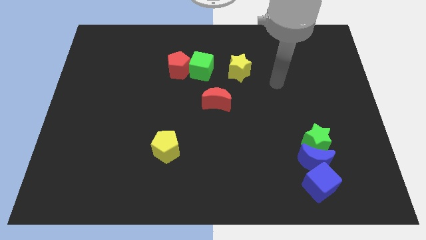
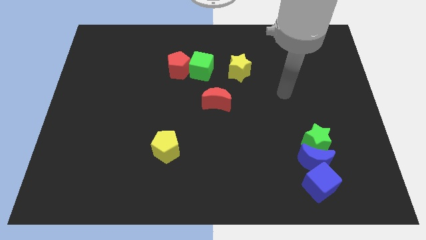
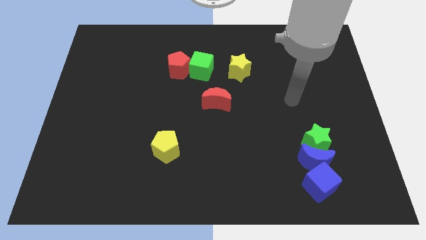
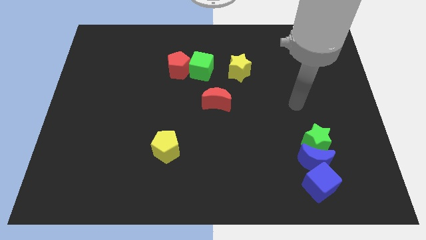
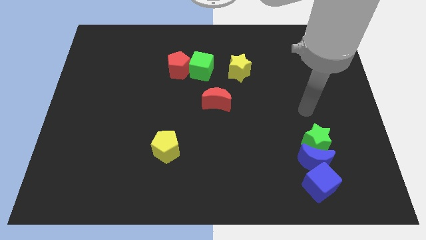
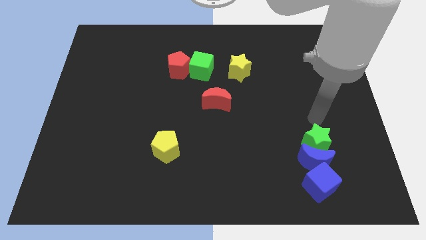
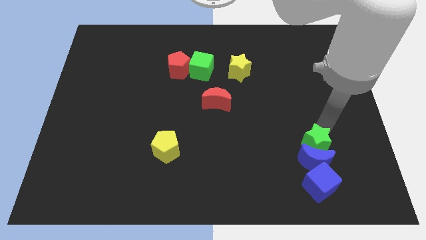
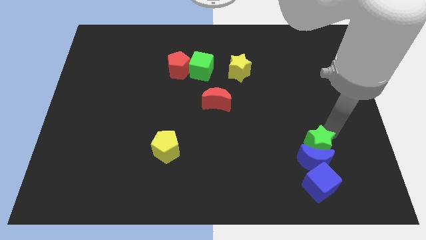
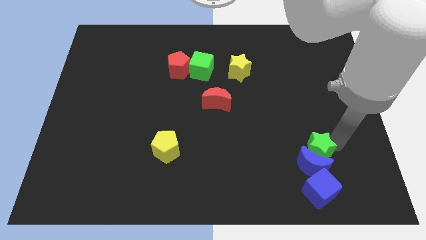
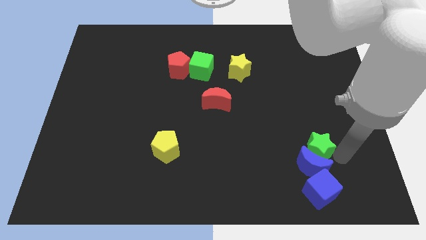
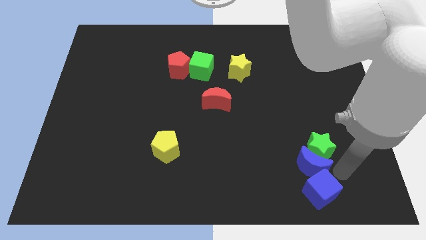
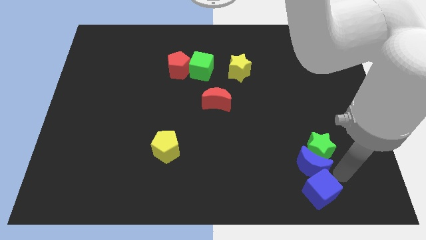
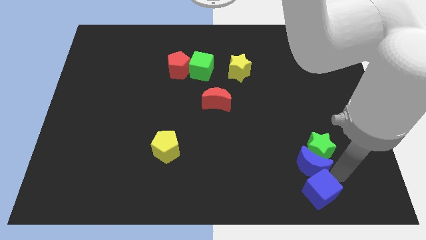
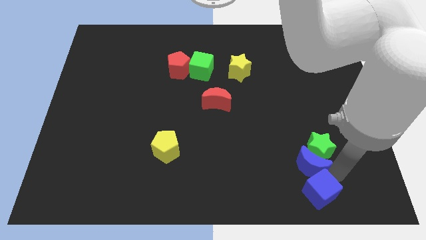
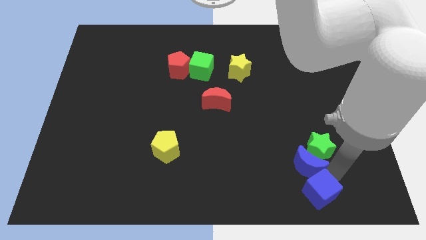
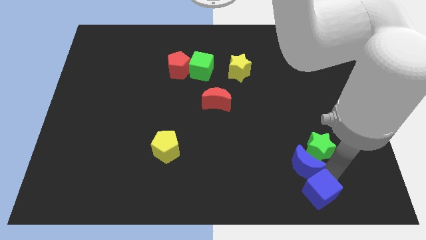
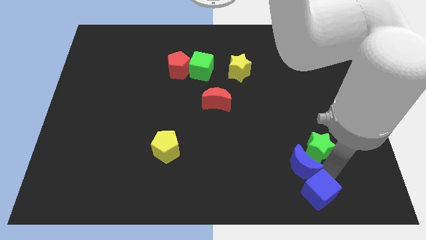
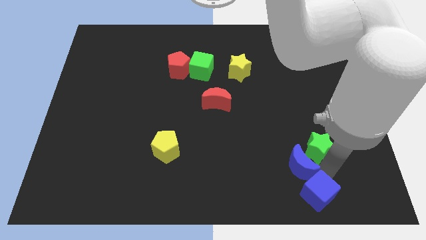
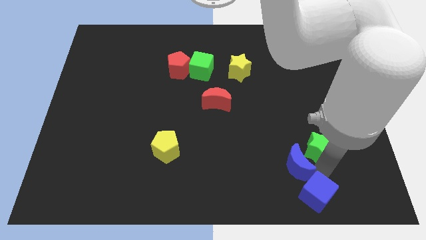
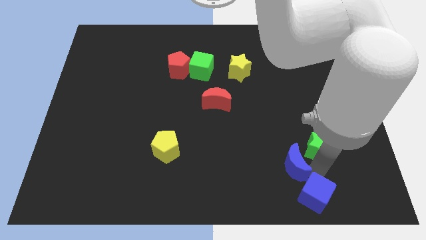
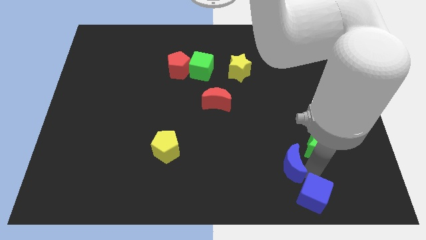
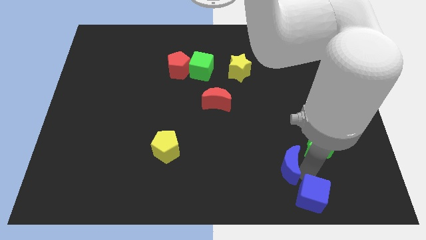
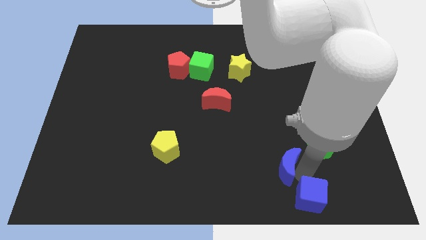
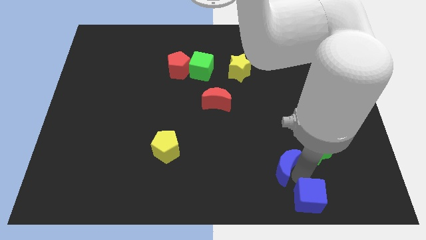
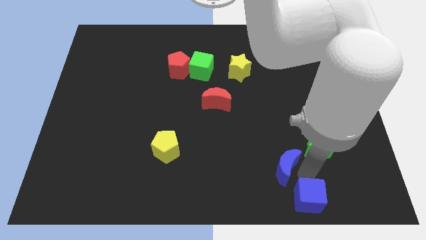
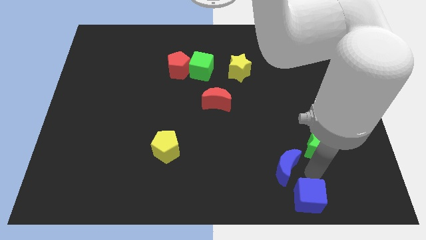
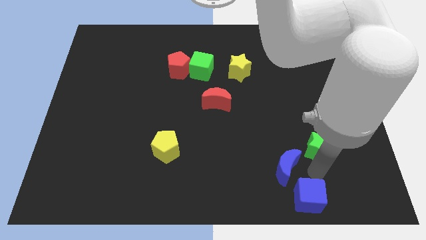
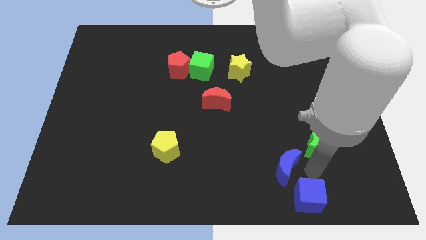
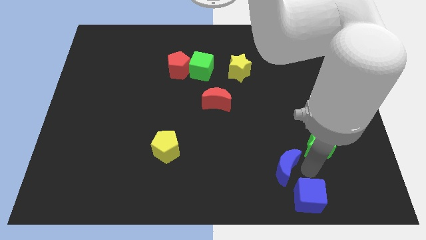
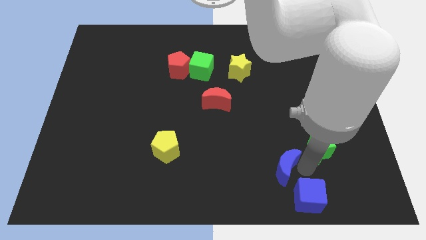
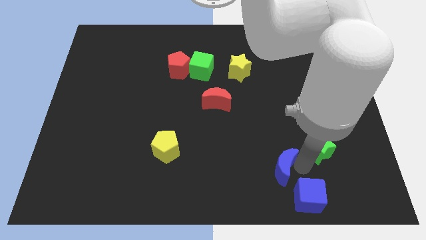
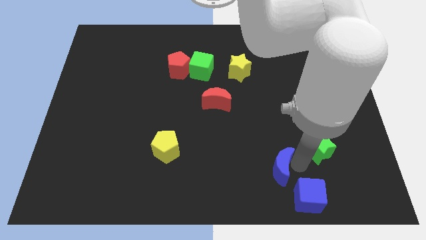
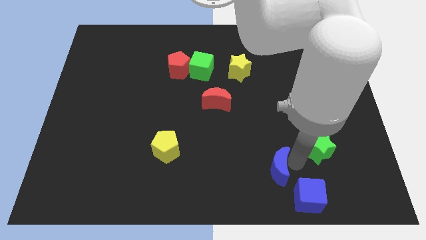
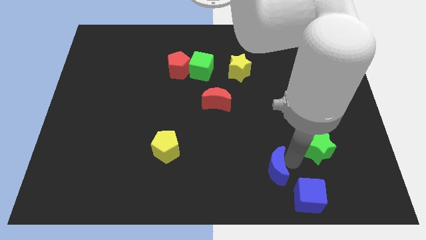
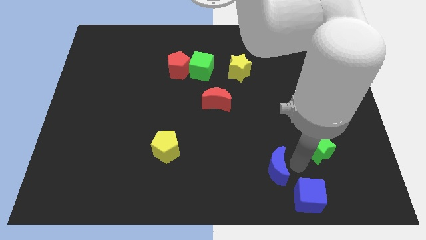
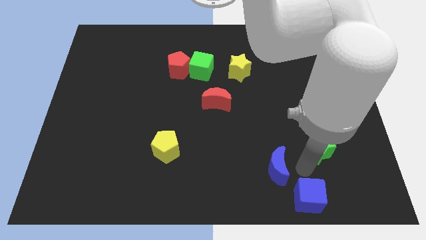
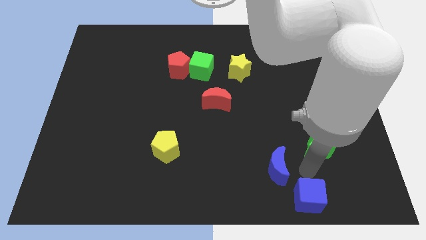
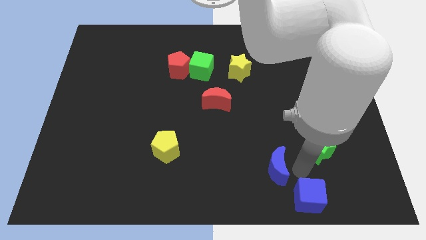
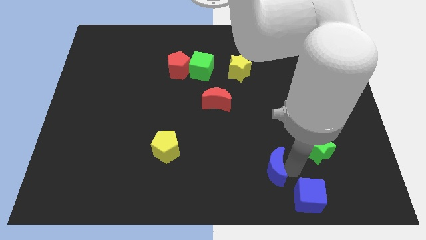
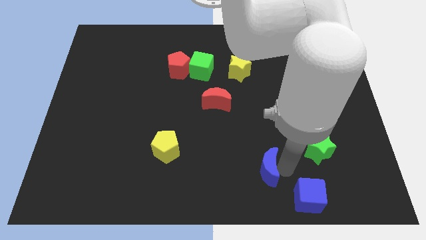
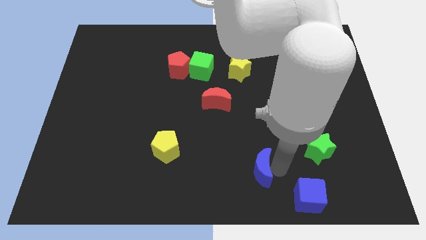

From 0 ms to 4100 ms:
pull the blue moon apart from the green star and blue cube

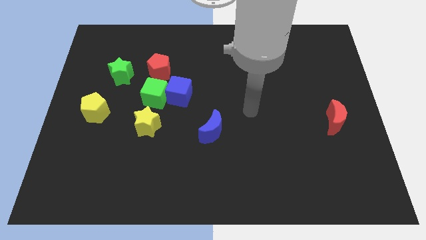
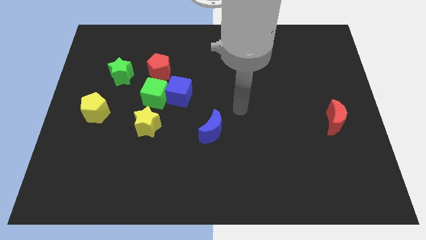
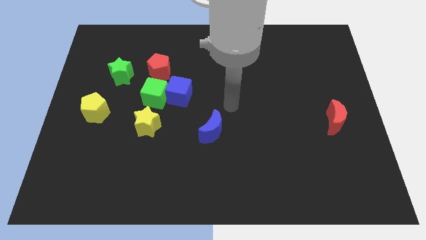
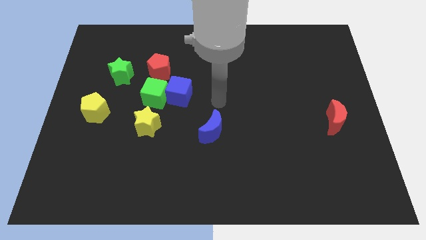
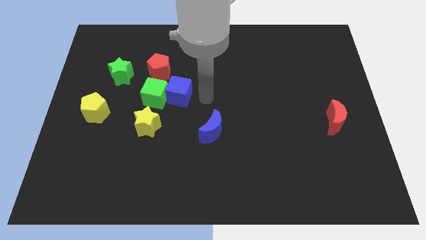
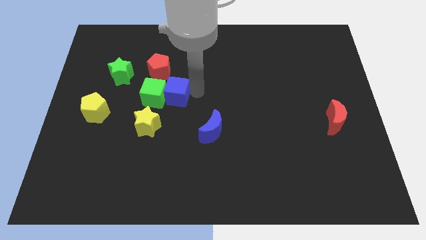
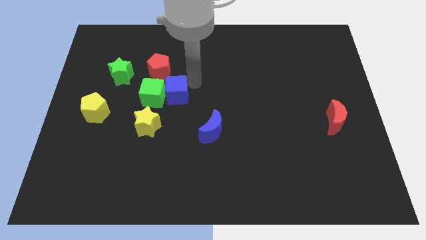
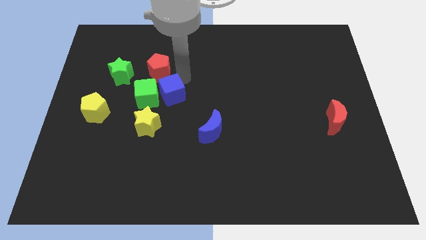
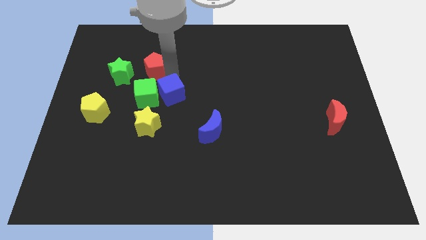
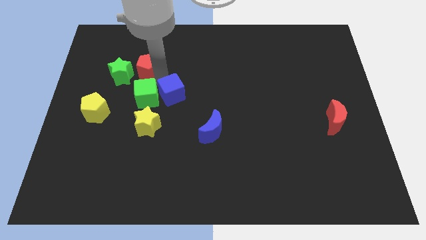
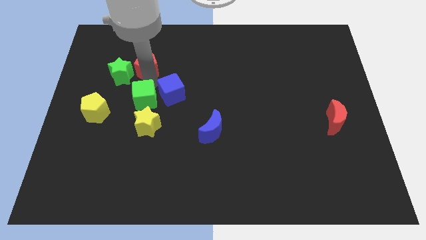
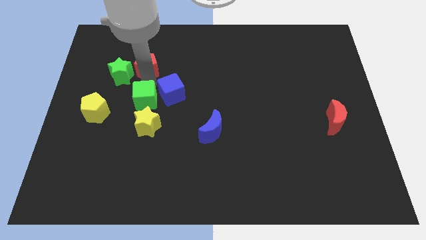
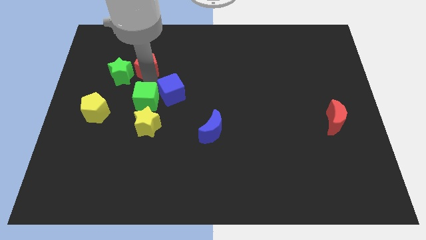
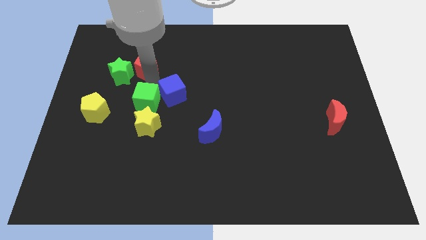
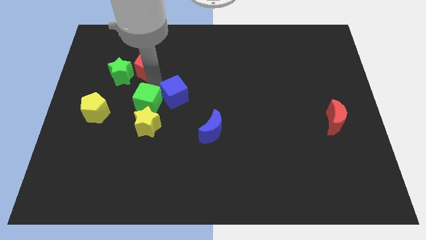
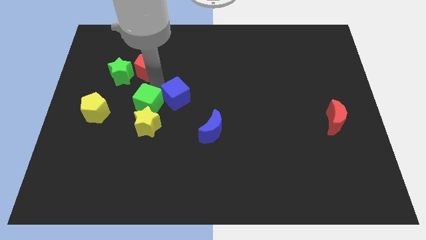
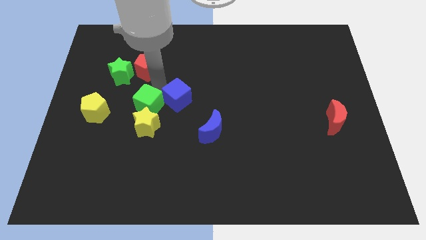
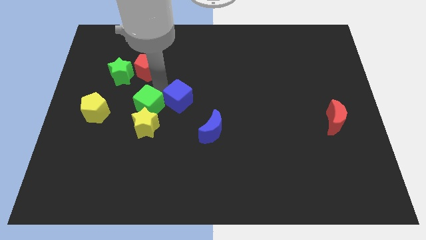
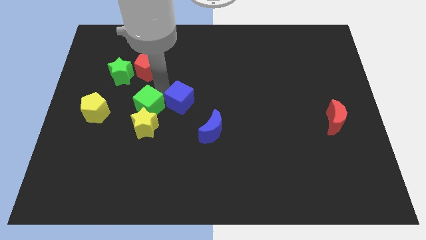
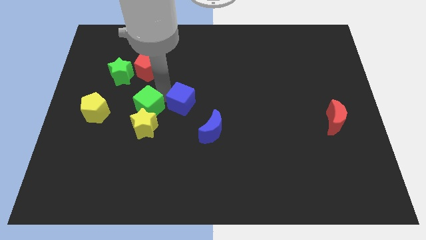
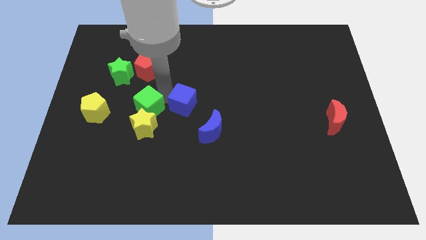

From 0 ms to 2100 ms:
pull the blue cube apart from the green cube and red pentagon

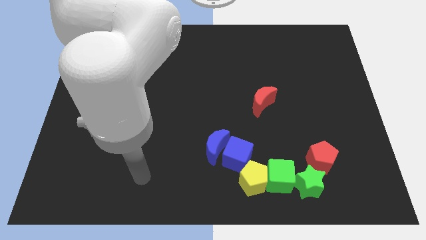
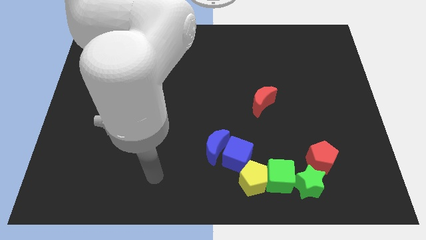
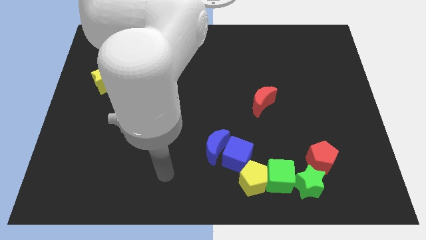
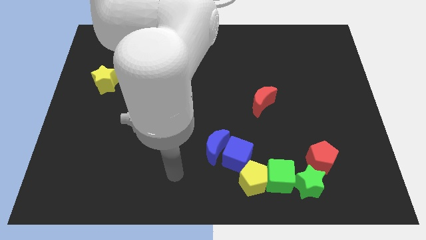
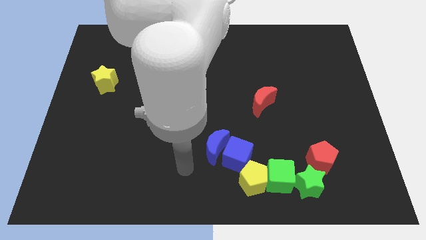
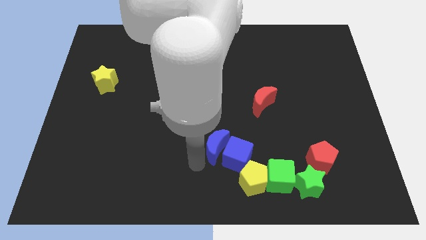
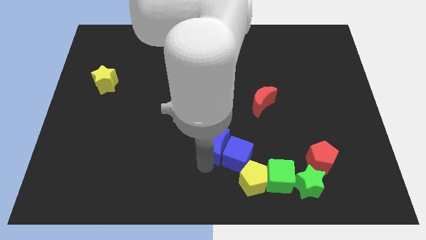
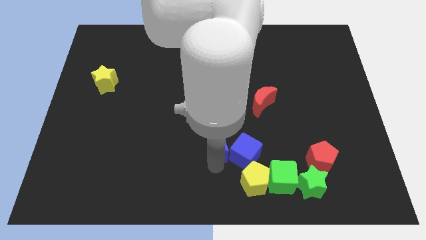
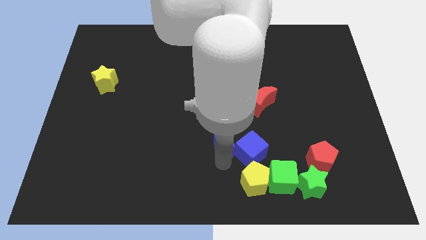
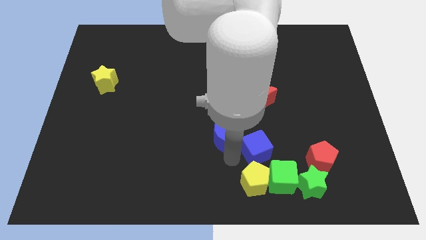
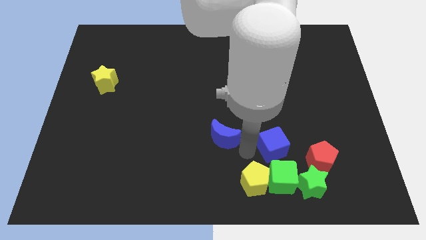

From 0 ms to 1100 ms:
separate the blue moon from the blue cube

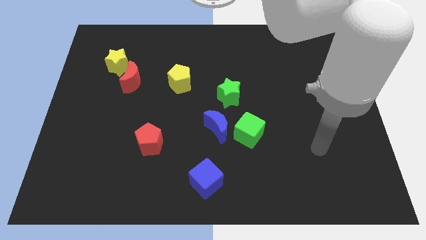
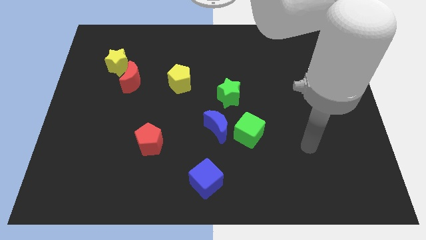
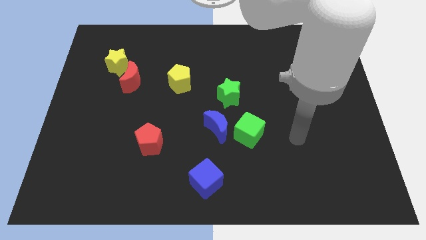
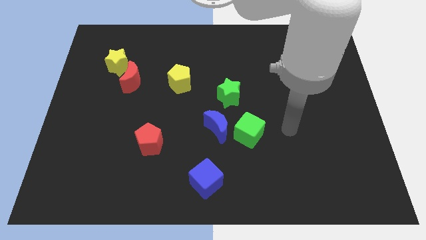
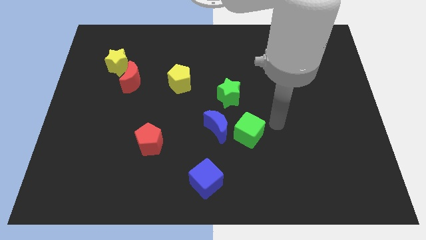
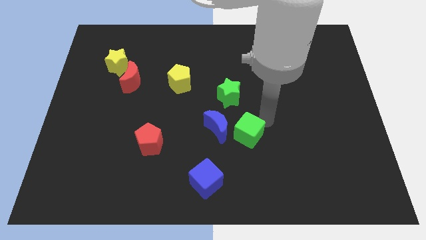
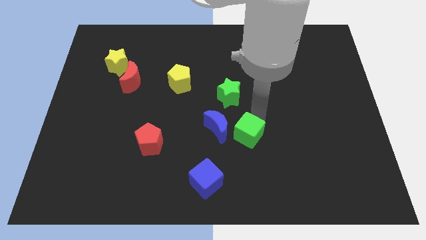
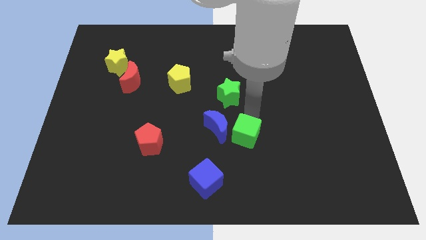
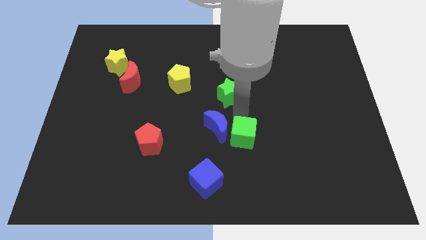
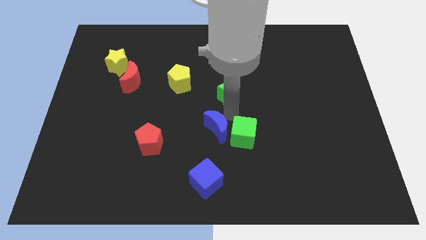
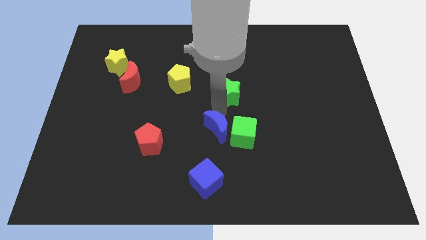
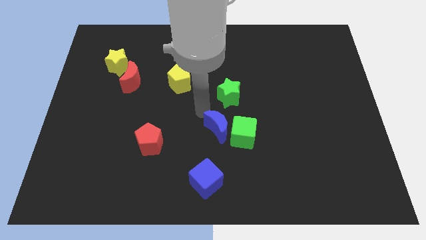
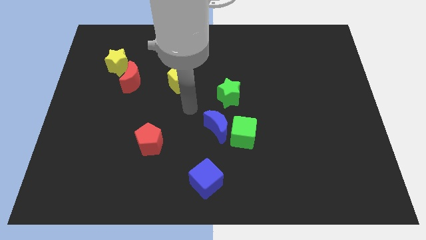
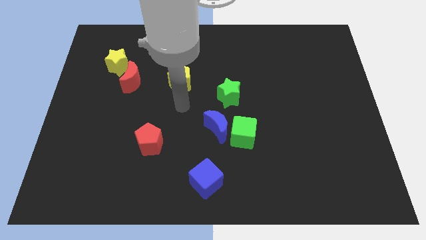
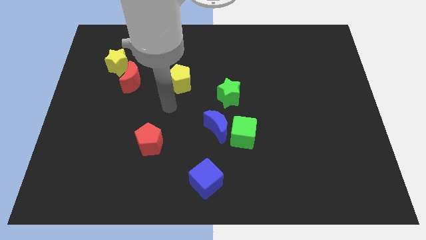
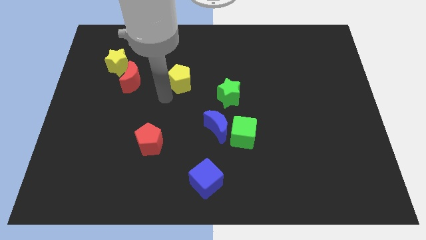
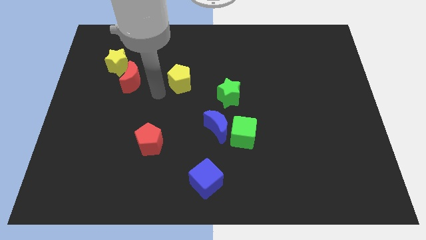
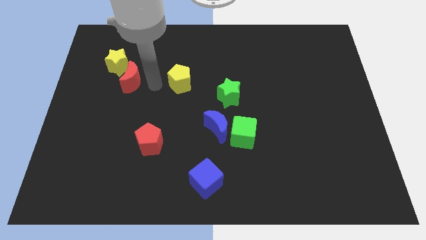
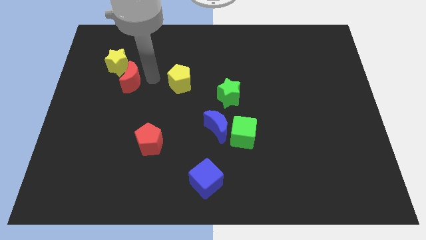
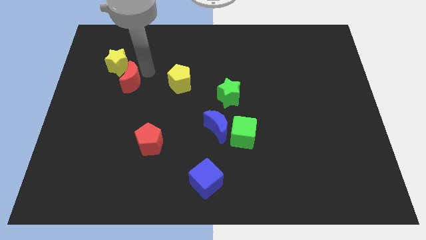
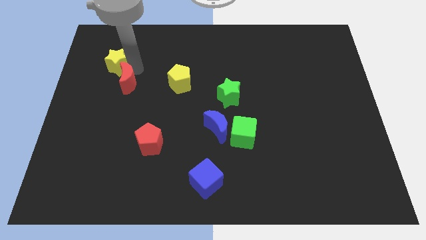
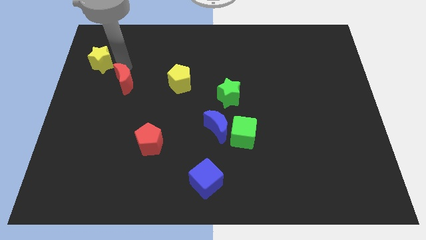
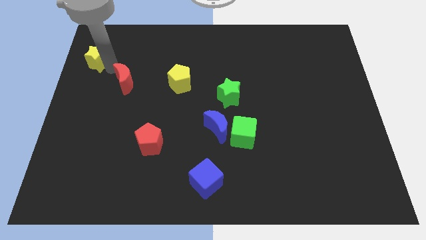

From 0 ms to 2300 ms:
move the red moon away from the yellow star
